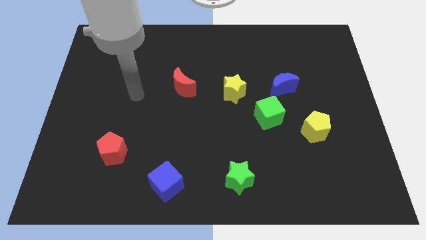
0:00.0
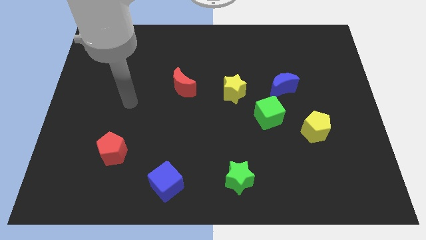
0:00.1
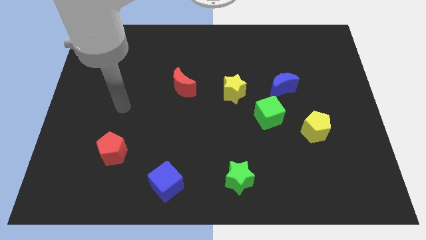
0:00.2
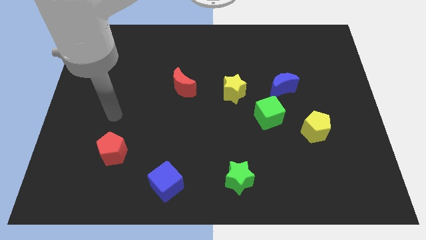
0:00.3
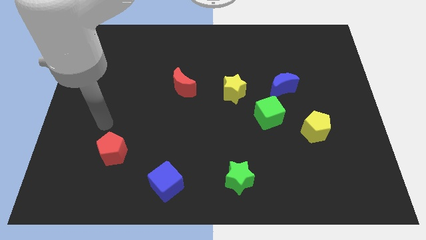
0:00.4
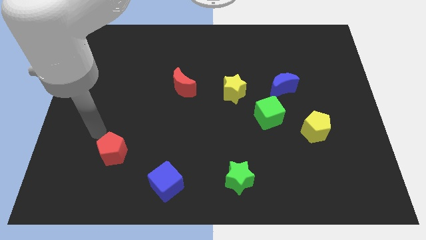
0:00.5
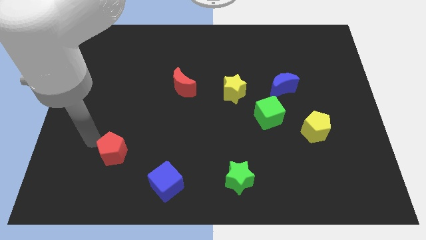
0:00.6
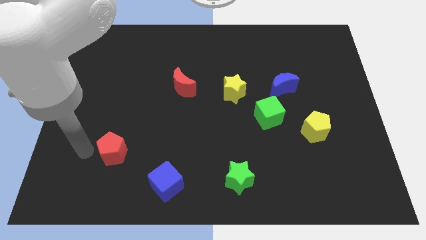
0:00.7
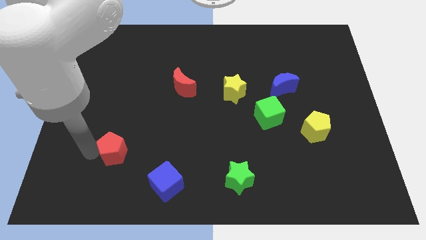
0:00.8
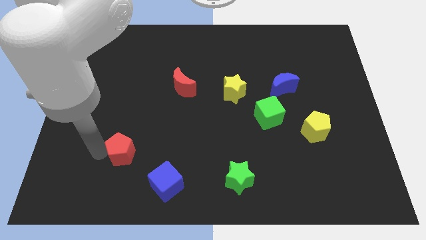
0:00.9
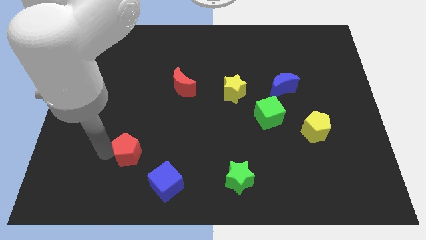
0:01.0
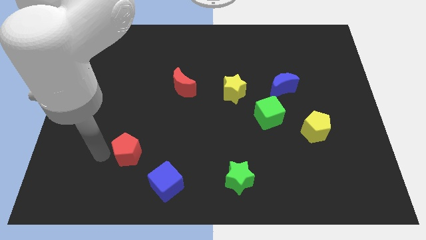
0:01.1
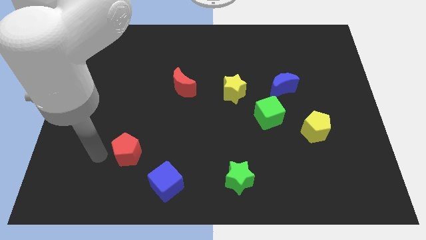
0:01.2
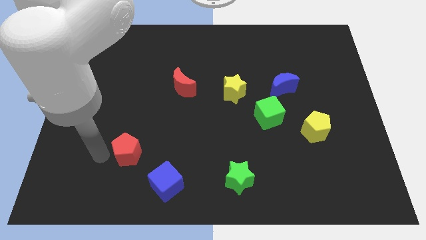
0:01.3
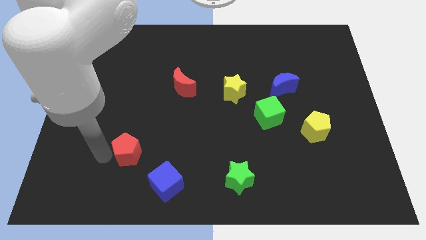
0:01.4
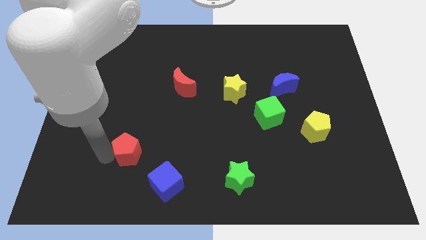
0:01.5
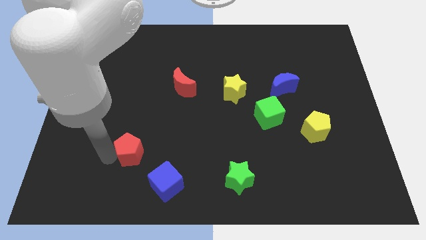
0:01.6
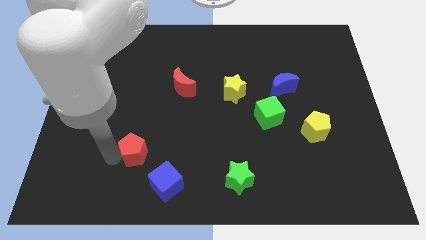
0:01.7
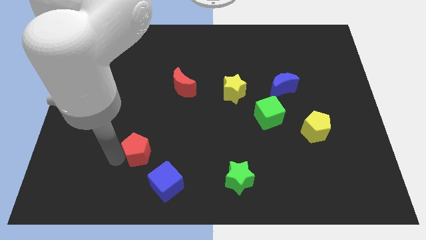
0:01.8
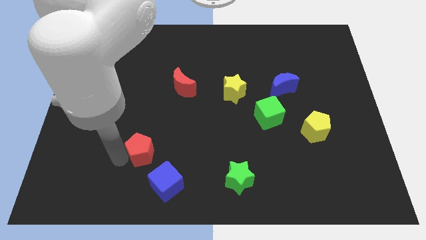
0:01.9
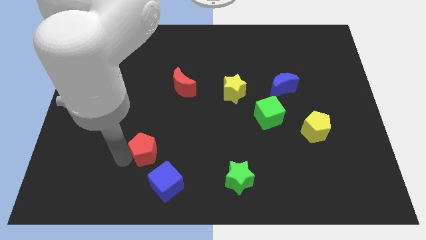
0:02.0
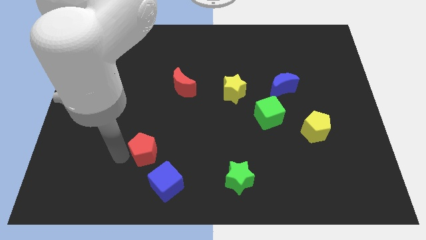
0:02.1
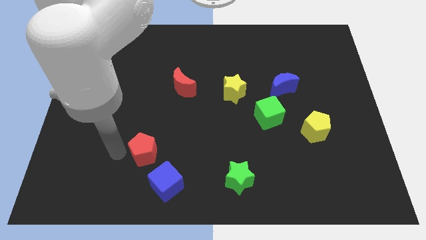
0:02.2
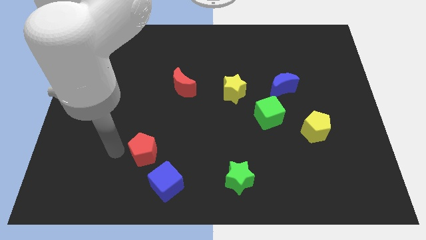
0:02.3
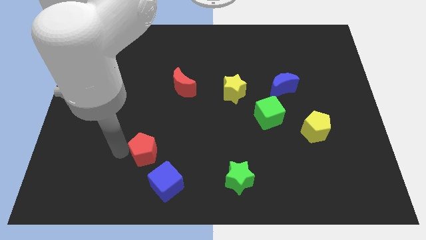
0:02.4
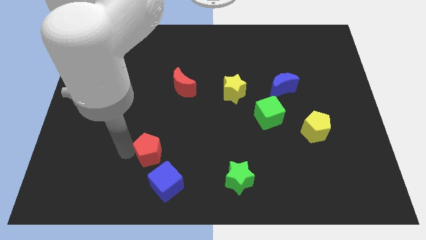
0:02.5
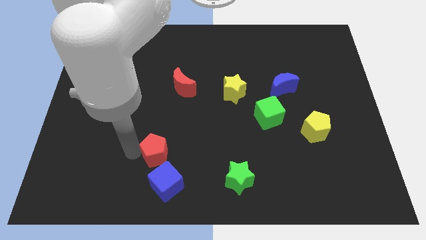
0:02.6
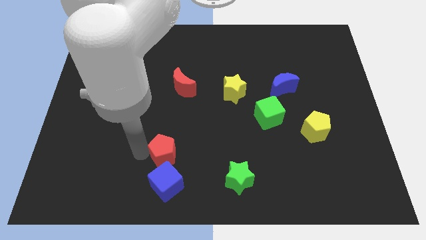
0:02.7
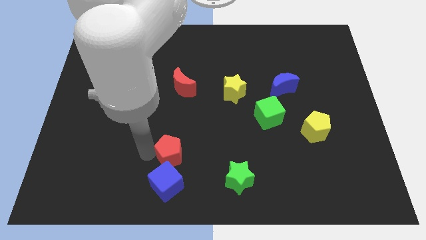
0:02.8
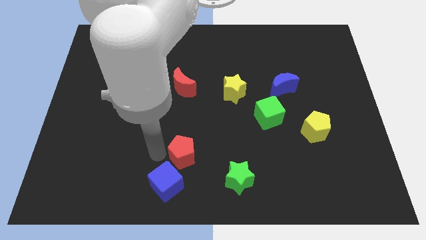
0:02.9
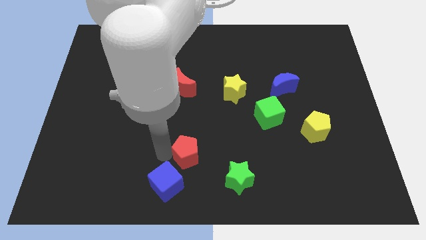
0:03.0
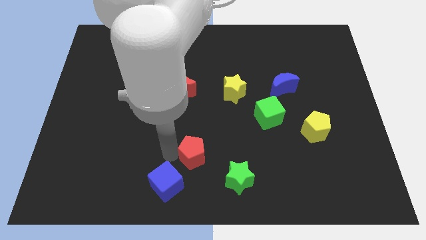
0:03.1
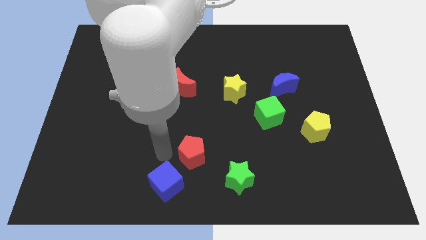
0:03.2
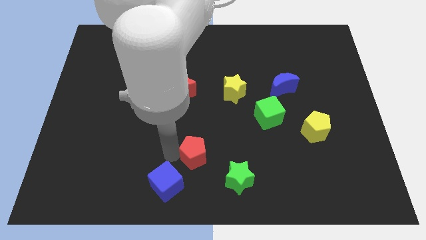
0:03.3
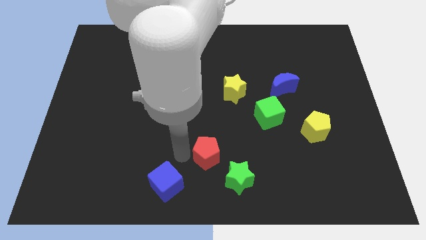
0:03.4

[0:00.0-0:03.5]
push the red pentagon to the right

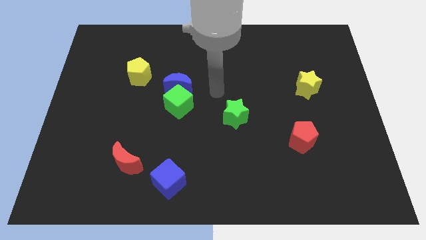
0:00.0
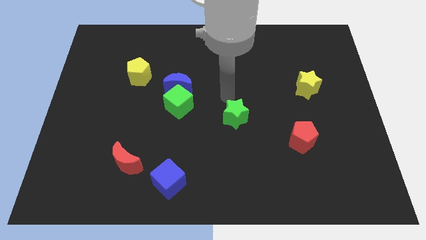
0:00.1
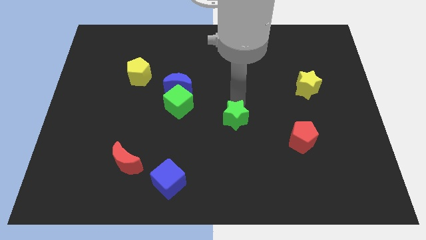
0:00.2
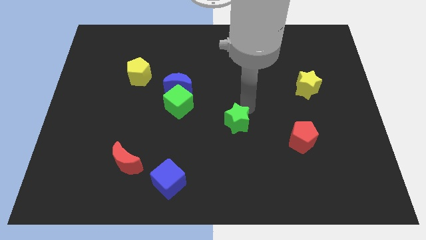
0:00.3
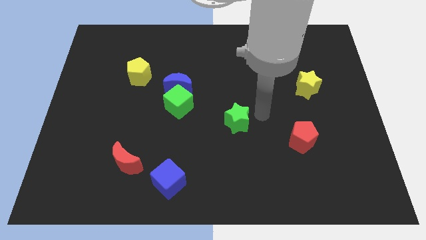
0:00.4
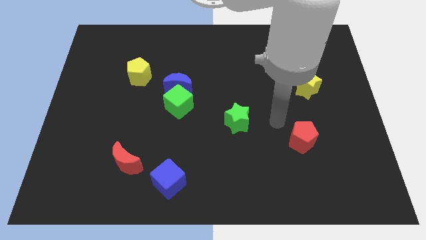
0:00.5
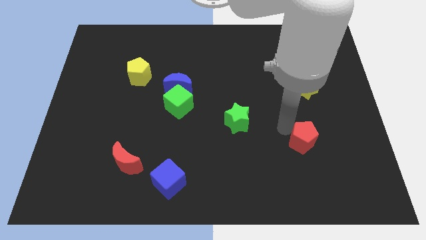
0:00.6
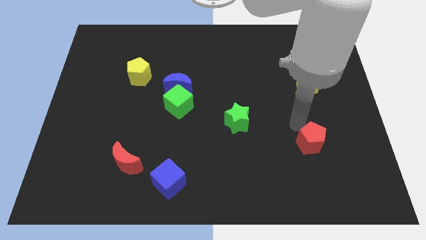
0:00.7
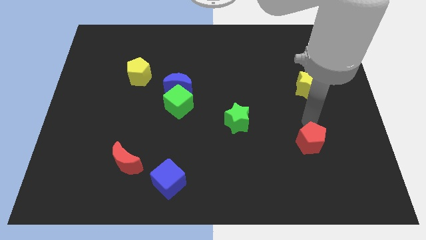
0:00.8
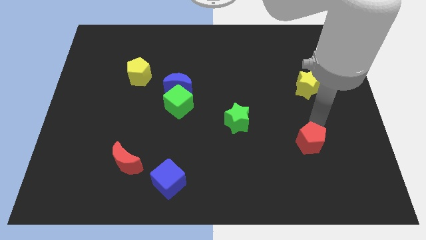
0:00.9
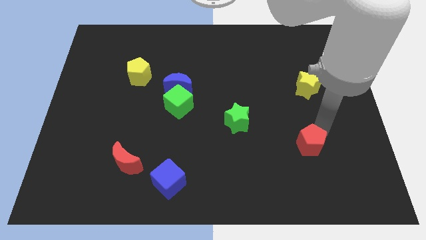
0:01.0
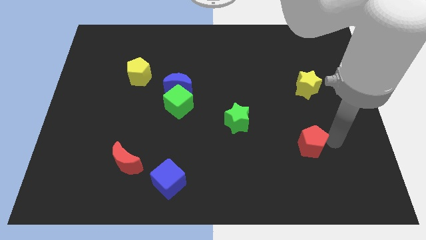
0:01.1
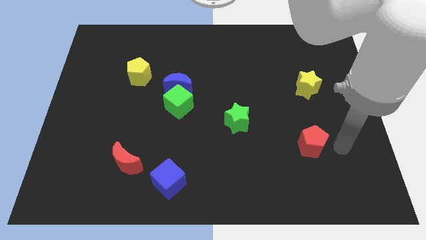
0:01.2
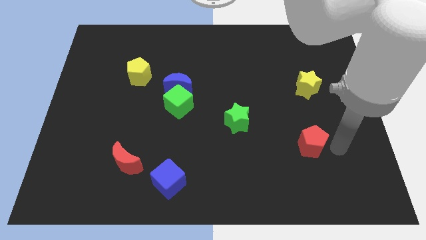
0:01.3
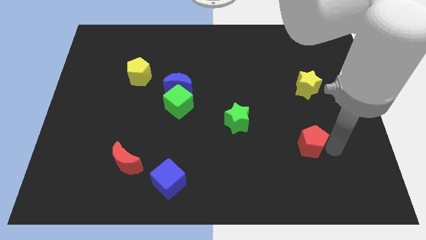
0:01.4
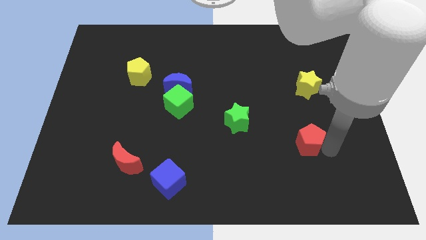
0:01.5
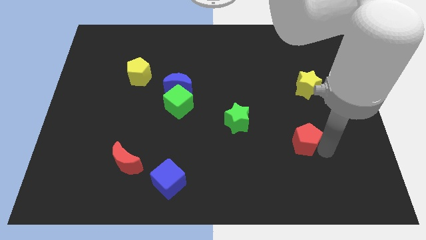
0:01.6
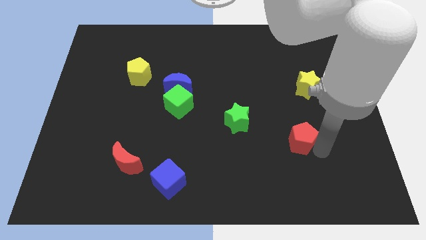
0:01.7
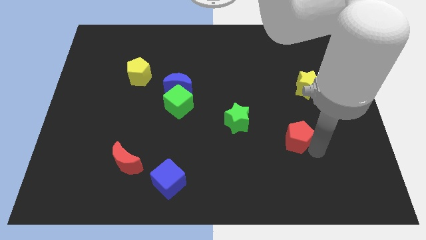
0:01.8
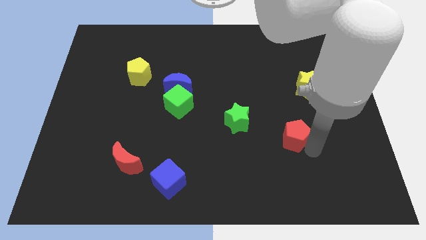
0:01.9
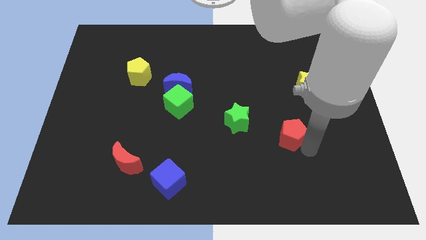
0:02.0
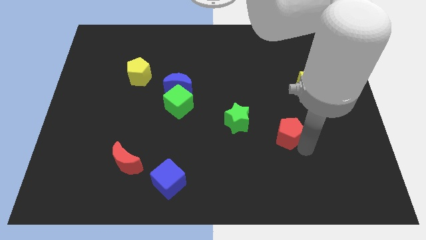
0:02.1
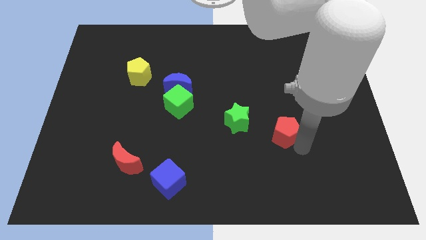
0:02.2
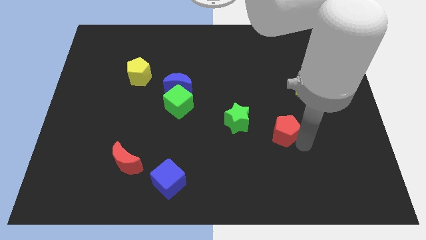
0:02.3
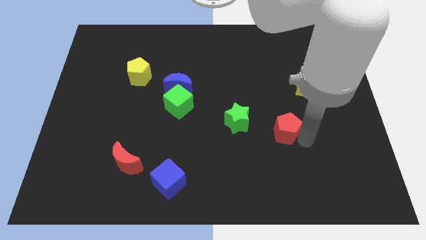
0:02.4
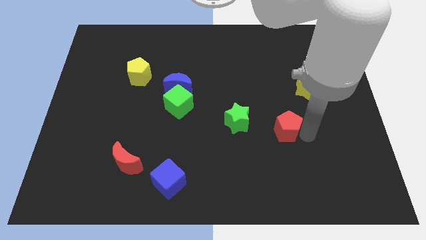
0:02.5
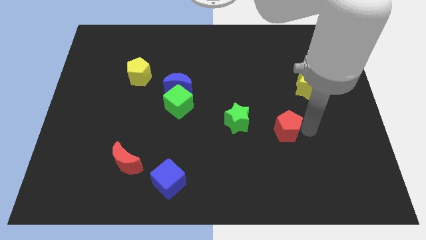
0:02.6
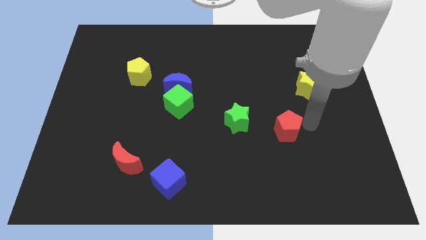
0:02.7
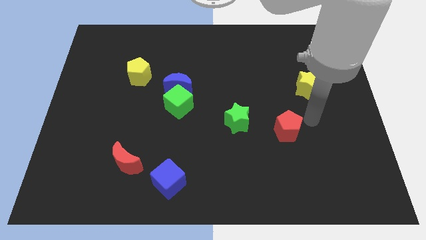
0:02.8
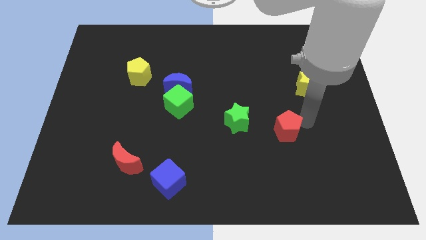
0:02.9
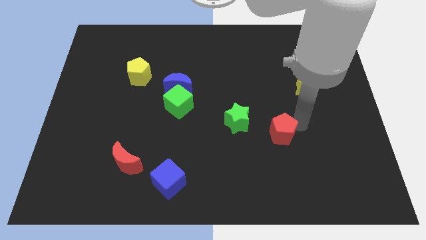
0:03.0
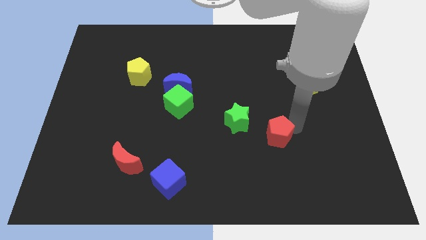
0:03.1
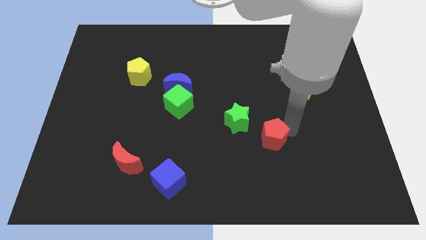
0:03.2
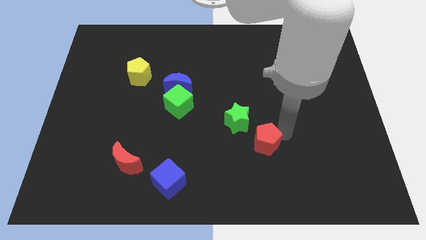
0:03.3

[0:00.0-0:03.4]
push the red pentagon left somewhat

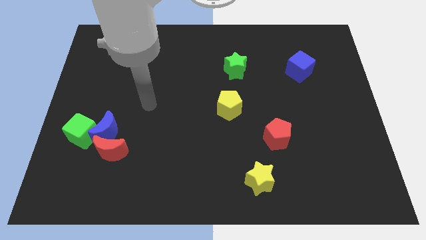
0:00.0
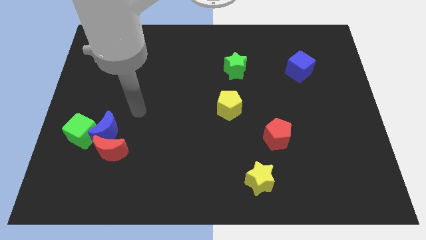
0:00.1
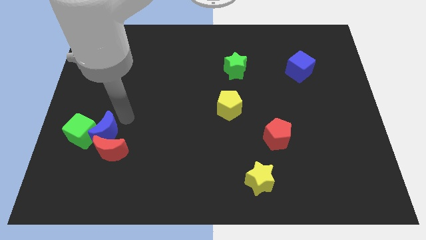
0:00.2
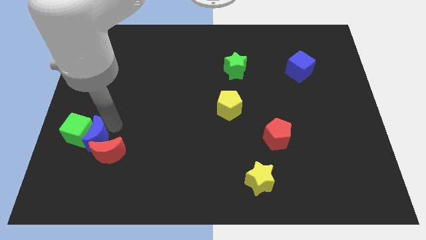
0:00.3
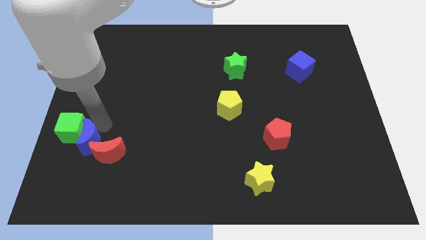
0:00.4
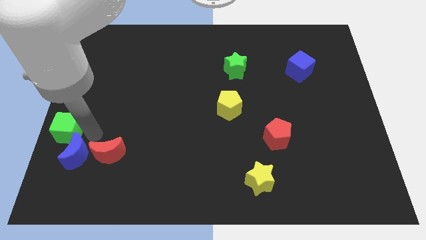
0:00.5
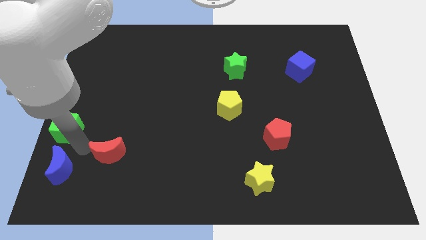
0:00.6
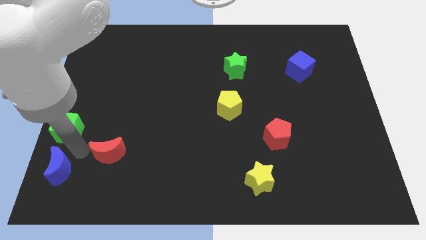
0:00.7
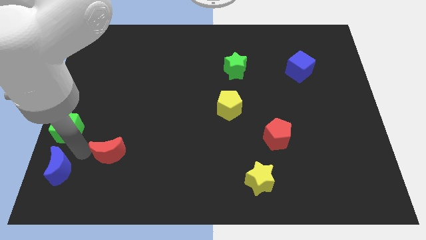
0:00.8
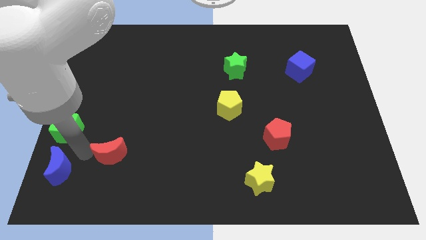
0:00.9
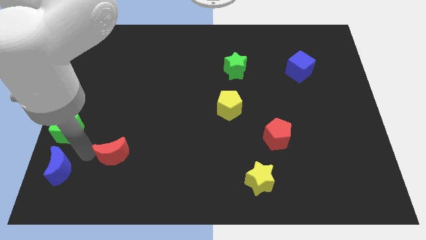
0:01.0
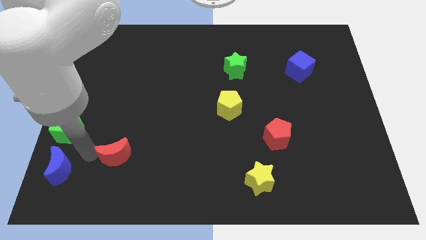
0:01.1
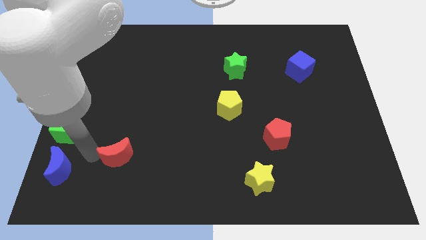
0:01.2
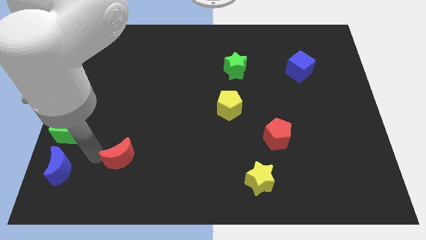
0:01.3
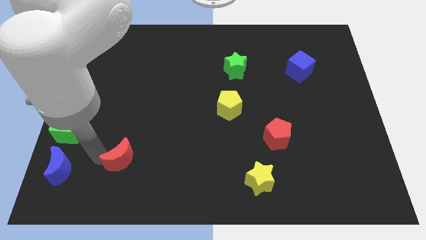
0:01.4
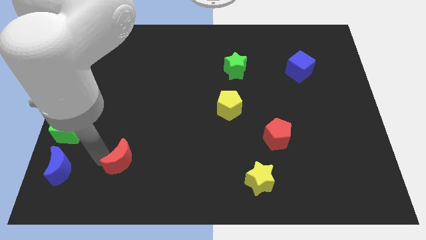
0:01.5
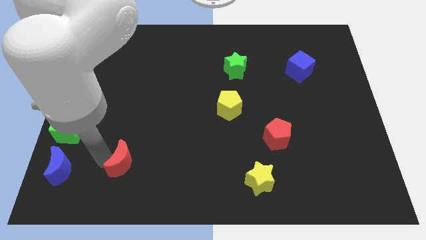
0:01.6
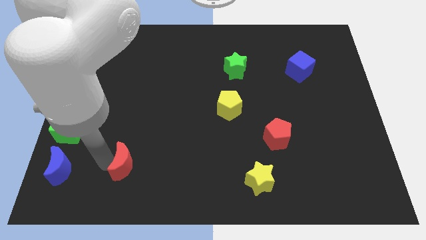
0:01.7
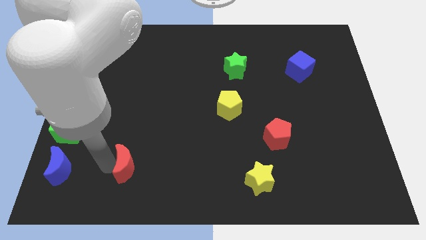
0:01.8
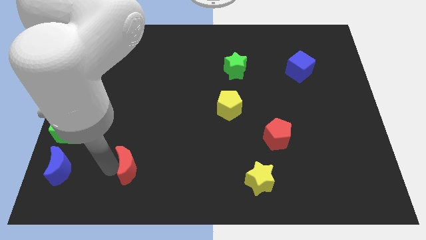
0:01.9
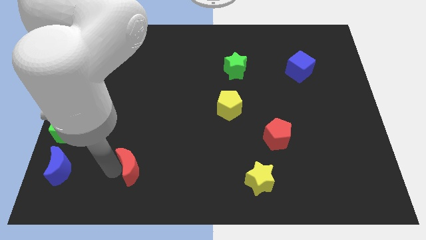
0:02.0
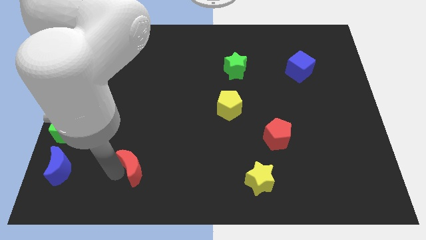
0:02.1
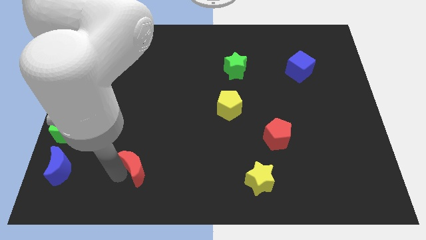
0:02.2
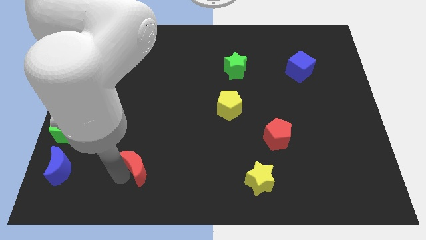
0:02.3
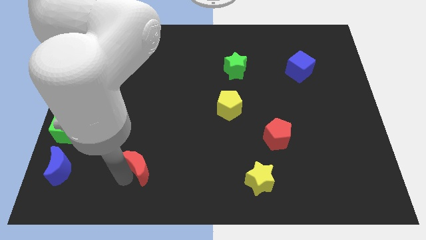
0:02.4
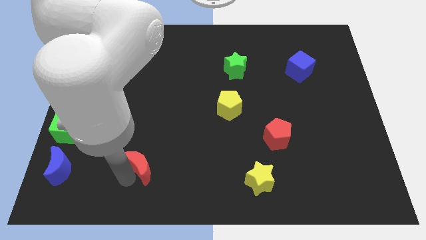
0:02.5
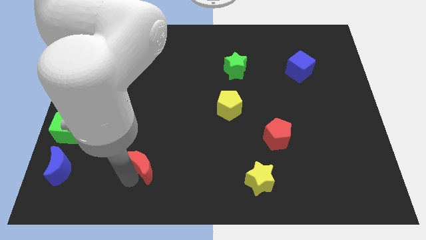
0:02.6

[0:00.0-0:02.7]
push the red moon a bit to the right
